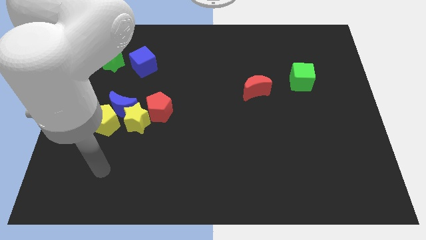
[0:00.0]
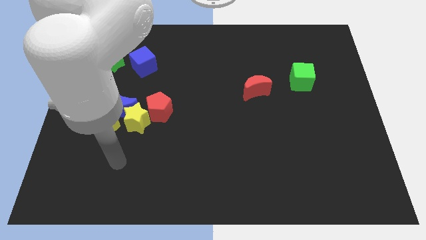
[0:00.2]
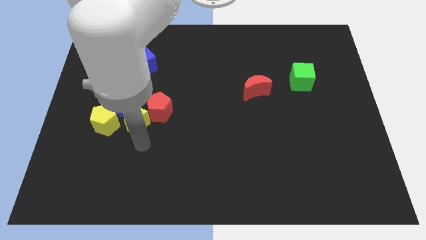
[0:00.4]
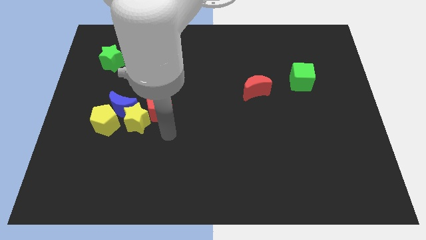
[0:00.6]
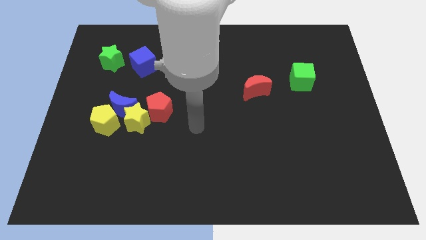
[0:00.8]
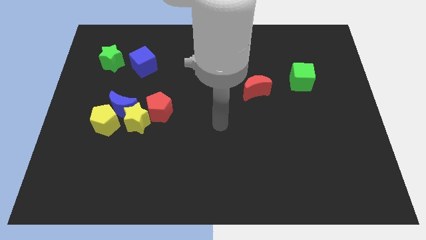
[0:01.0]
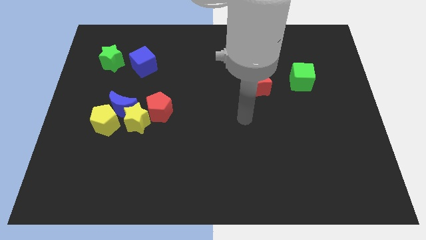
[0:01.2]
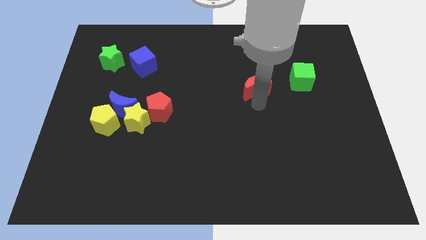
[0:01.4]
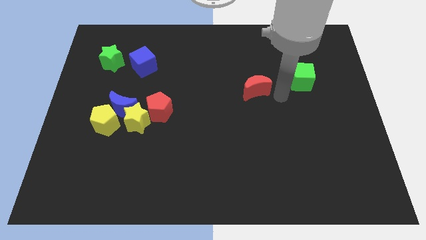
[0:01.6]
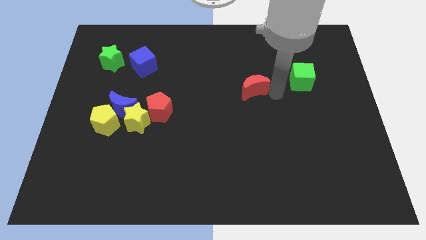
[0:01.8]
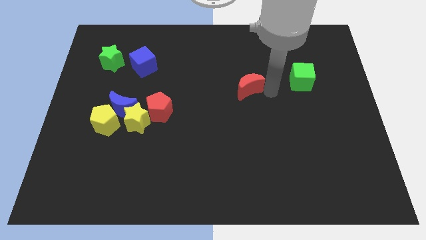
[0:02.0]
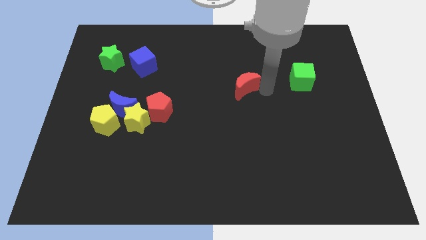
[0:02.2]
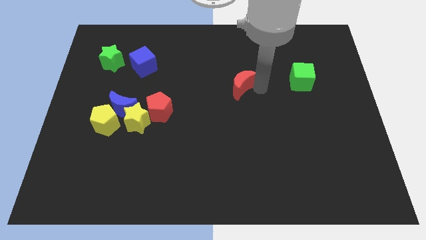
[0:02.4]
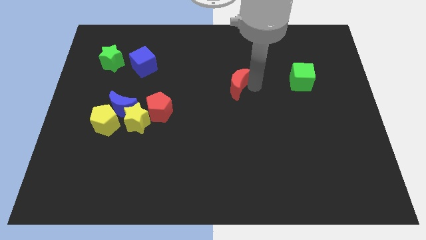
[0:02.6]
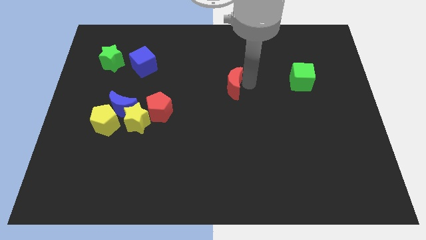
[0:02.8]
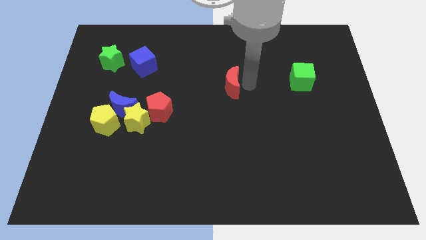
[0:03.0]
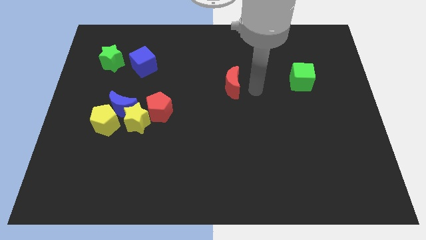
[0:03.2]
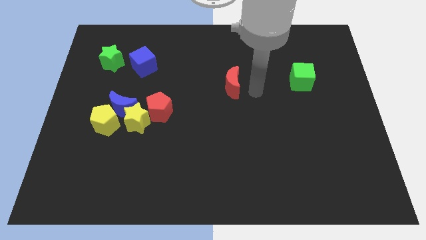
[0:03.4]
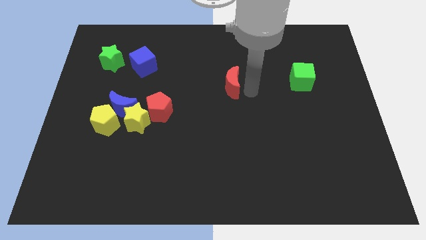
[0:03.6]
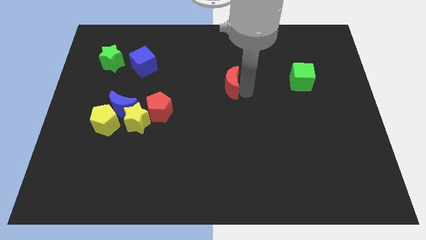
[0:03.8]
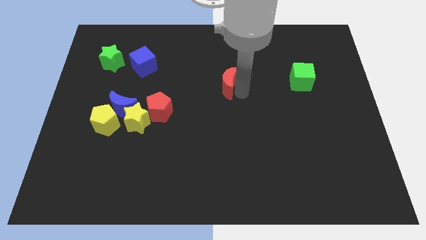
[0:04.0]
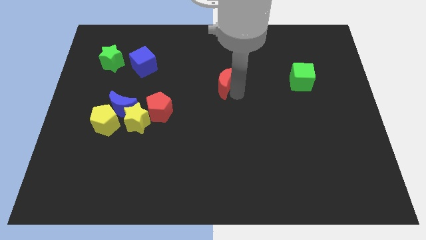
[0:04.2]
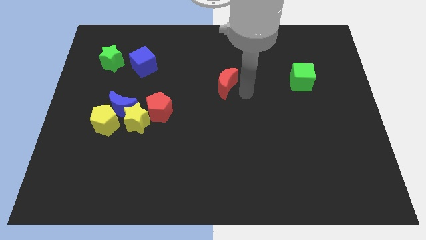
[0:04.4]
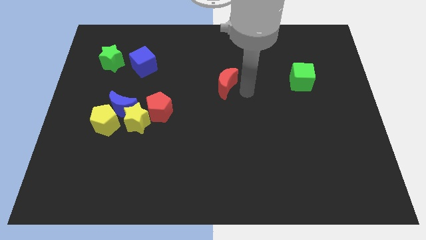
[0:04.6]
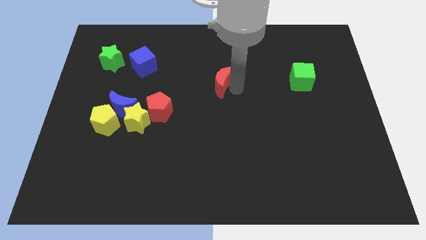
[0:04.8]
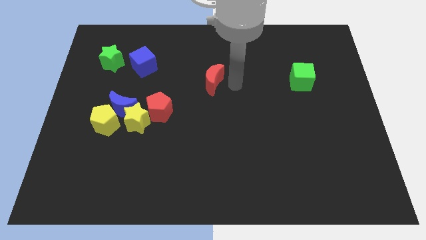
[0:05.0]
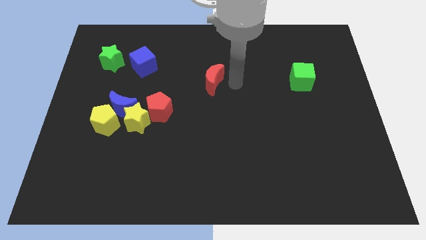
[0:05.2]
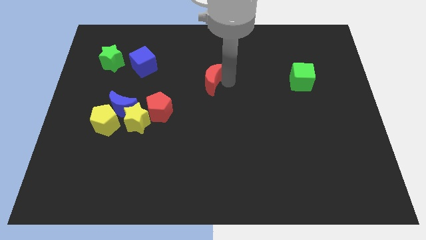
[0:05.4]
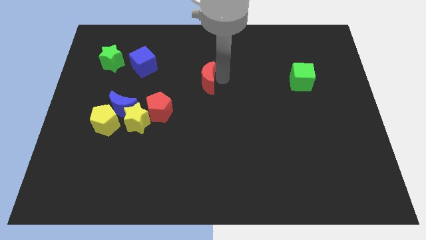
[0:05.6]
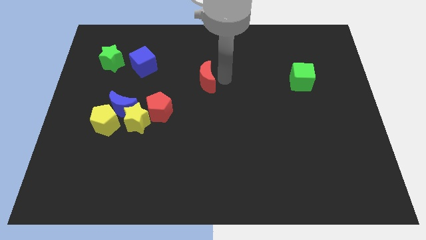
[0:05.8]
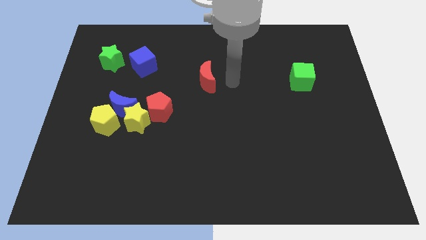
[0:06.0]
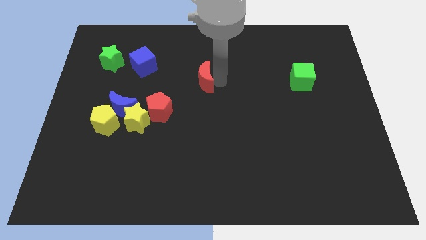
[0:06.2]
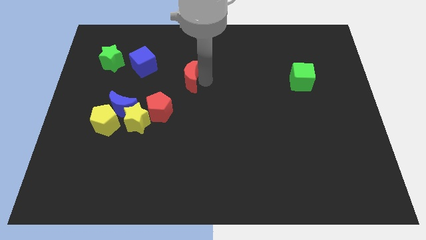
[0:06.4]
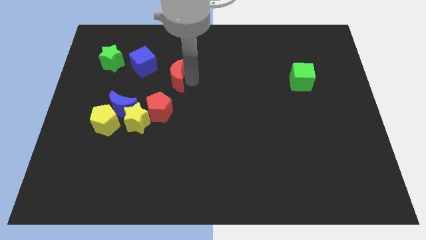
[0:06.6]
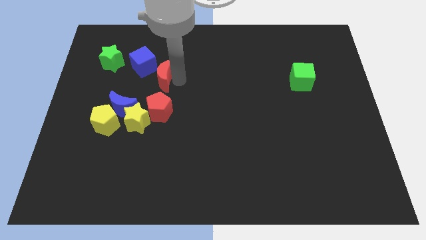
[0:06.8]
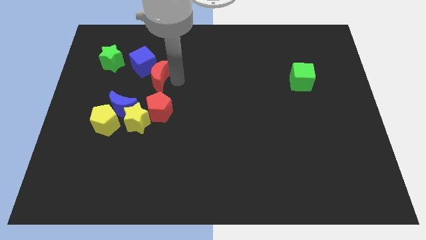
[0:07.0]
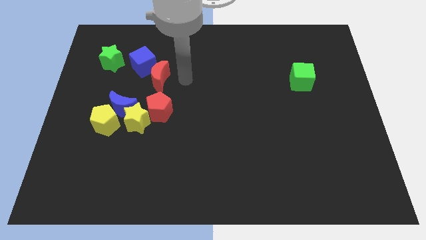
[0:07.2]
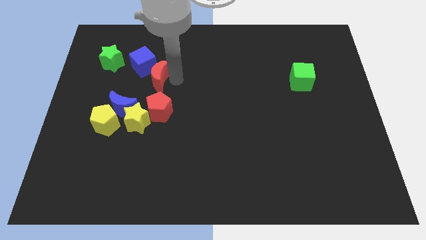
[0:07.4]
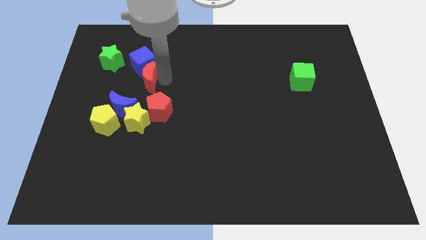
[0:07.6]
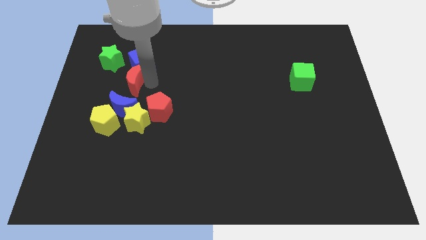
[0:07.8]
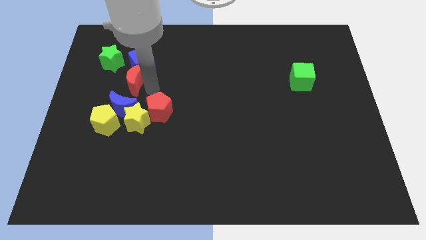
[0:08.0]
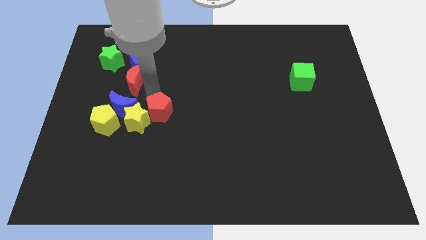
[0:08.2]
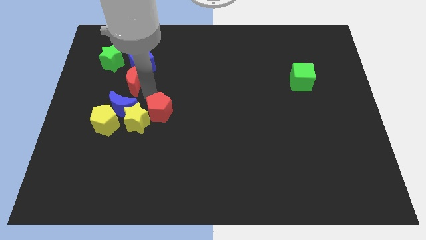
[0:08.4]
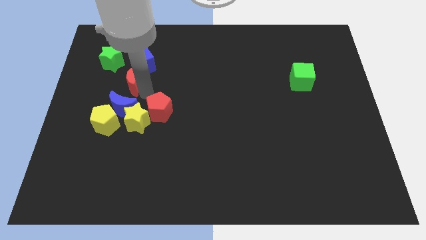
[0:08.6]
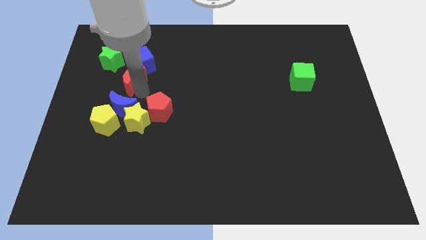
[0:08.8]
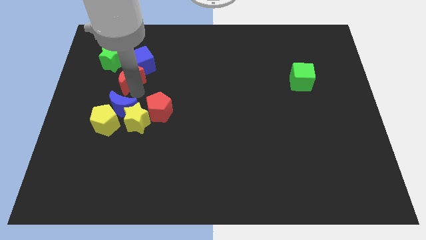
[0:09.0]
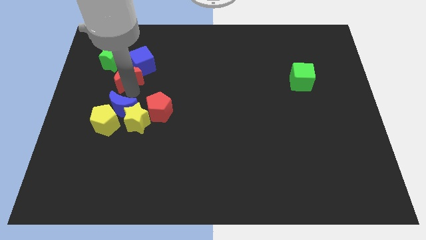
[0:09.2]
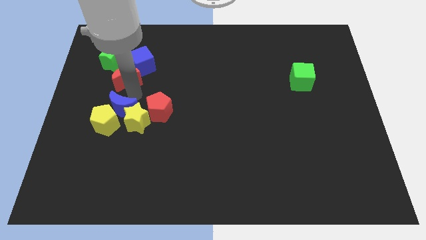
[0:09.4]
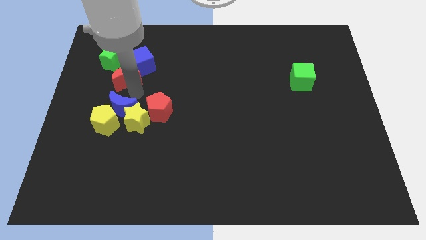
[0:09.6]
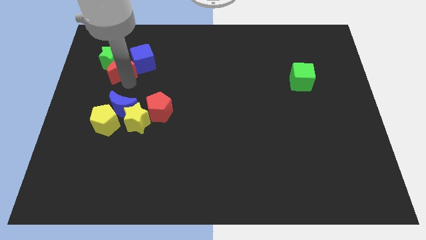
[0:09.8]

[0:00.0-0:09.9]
slide the red moon next to the green star

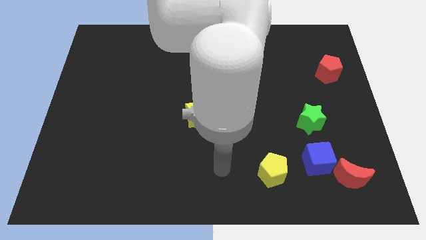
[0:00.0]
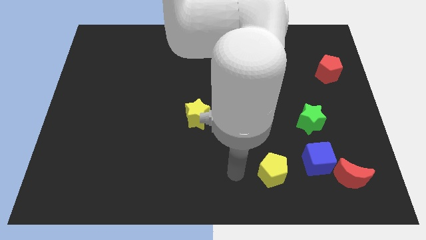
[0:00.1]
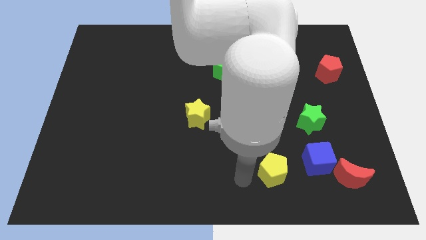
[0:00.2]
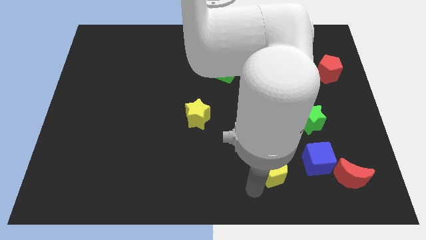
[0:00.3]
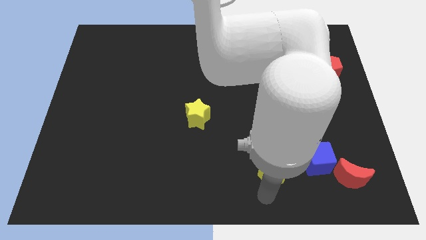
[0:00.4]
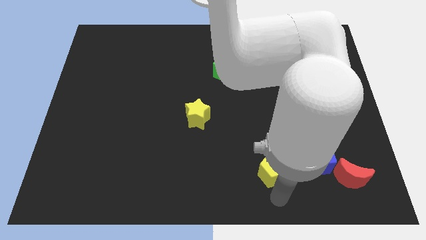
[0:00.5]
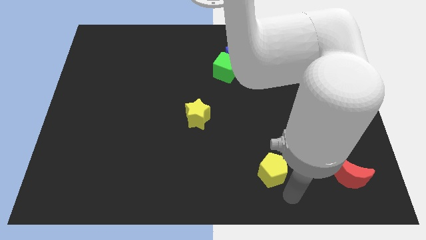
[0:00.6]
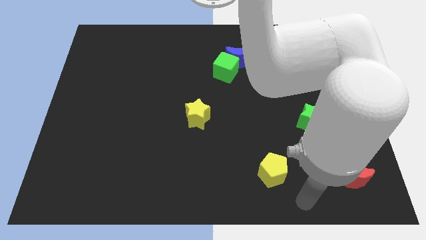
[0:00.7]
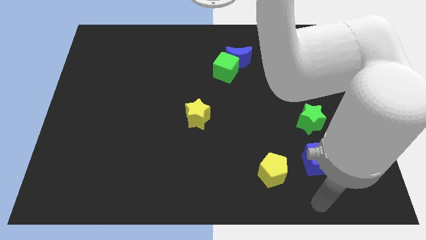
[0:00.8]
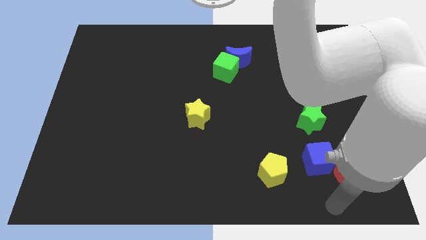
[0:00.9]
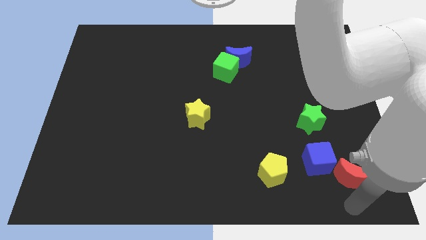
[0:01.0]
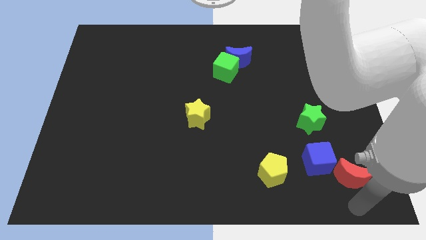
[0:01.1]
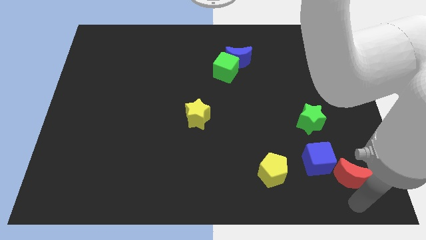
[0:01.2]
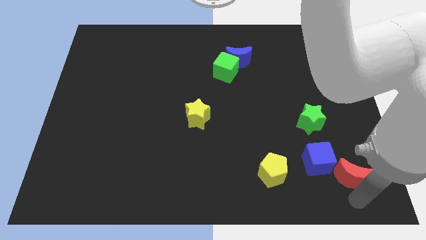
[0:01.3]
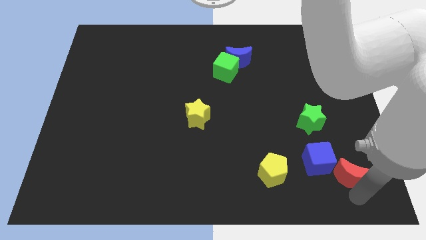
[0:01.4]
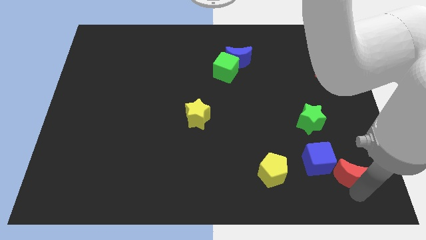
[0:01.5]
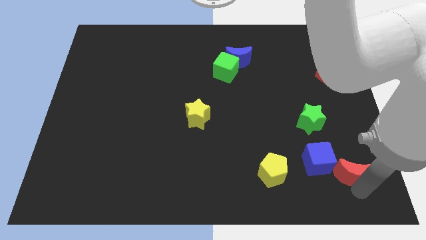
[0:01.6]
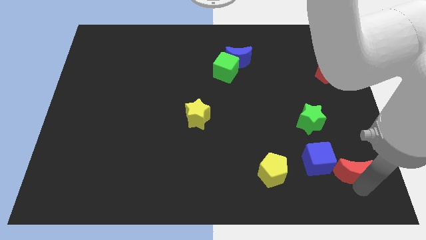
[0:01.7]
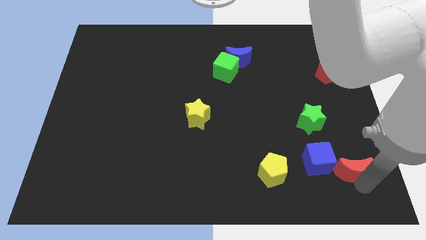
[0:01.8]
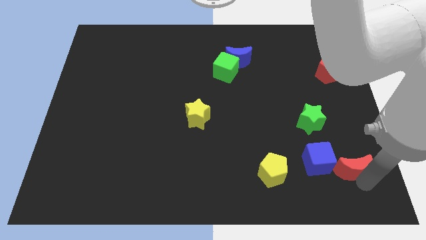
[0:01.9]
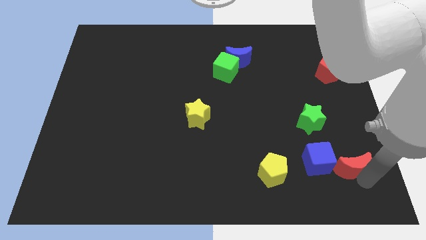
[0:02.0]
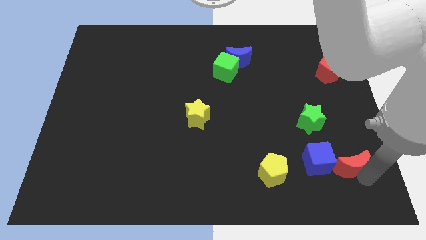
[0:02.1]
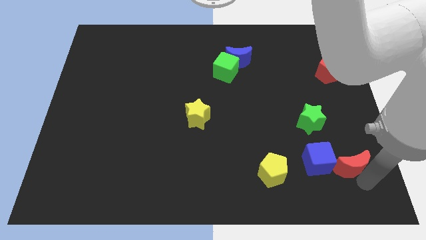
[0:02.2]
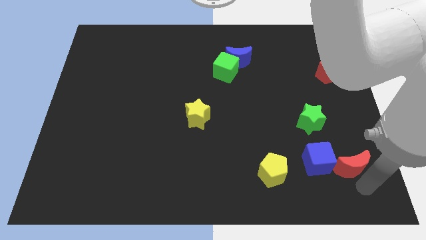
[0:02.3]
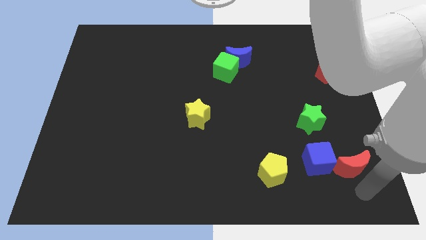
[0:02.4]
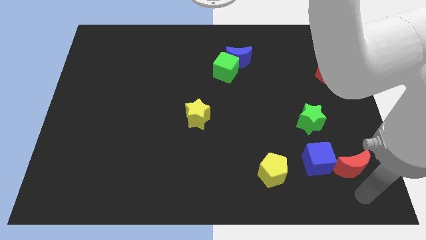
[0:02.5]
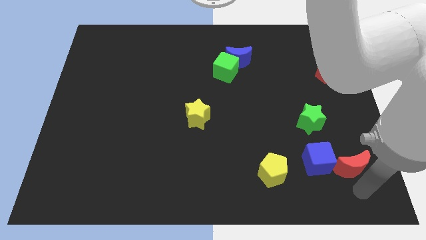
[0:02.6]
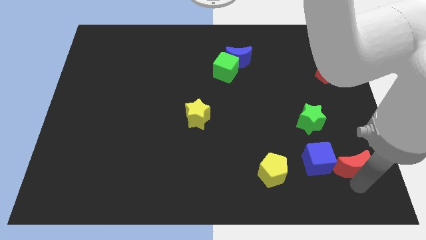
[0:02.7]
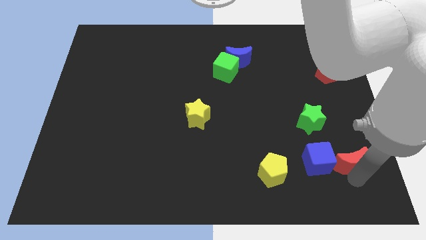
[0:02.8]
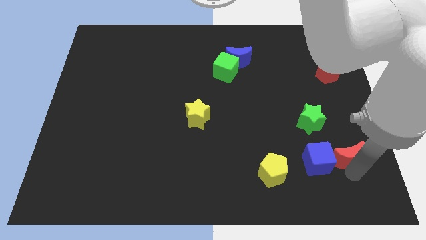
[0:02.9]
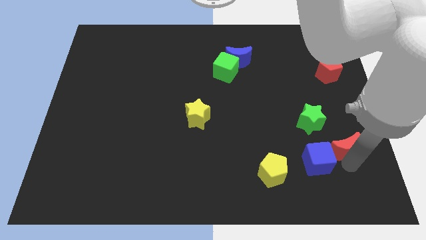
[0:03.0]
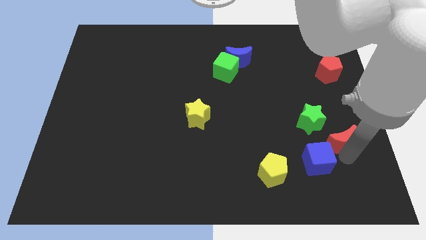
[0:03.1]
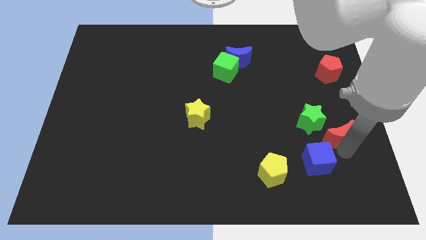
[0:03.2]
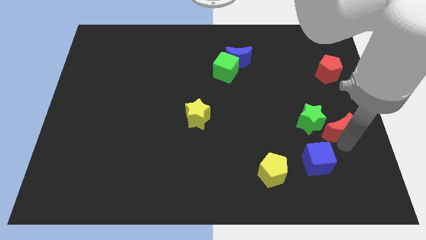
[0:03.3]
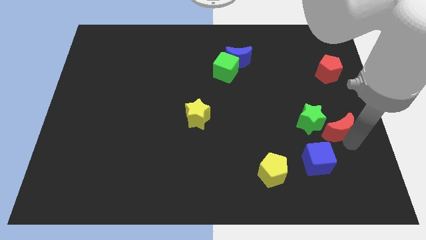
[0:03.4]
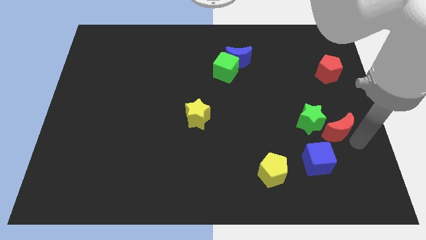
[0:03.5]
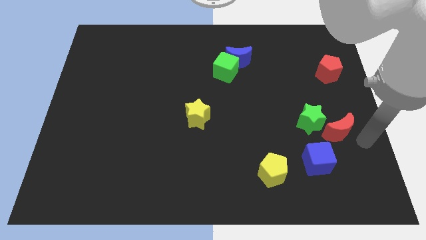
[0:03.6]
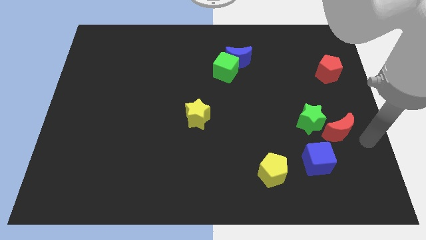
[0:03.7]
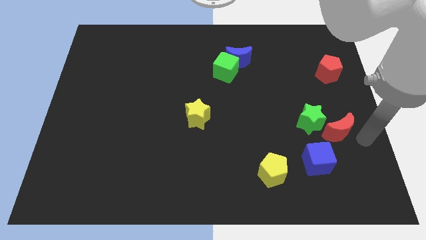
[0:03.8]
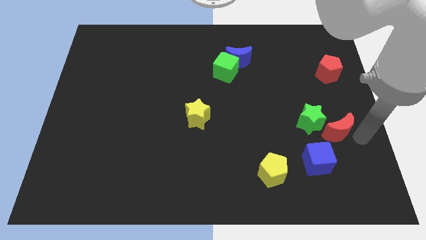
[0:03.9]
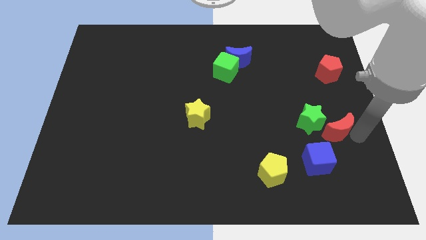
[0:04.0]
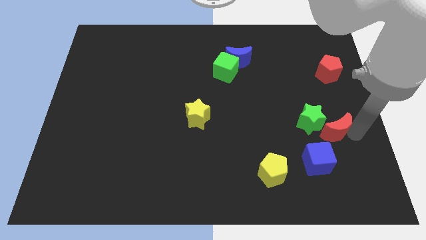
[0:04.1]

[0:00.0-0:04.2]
put the red moon to the green star
